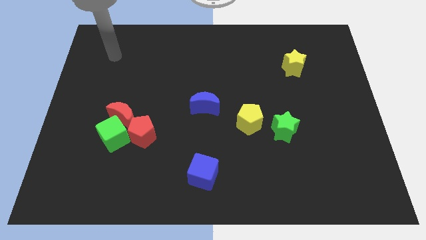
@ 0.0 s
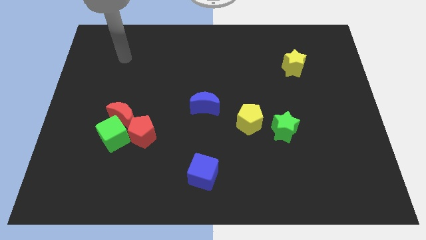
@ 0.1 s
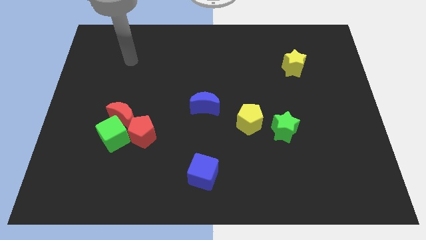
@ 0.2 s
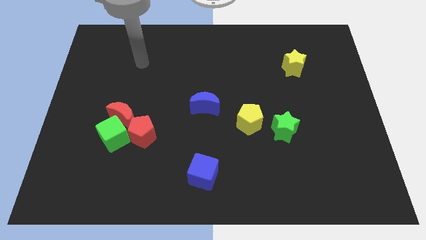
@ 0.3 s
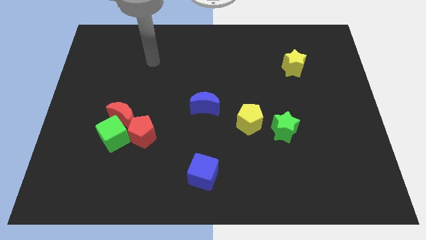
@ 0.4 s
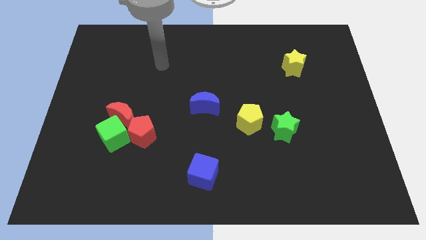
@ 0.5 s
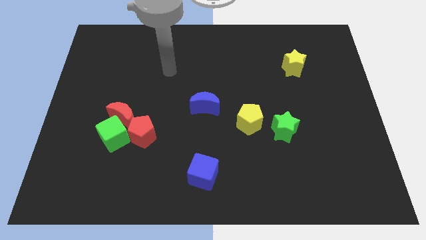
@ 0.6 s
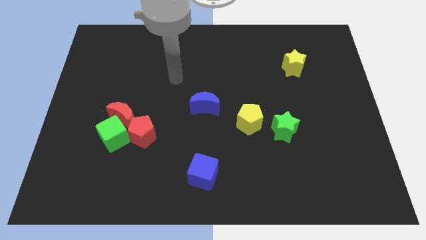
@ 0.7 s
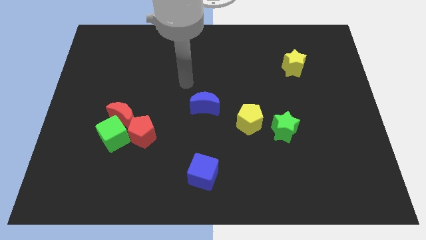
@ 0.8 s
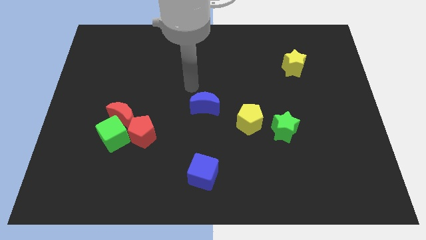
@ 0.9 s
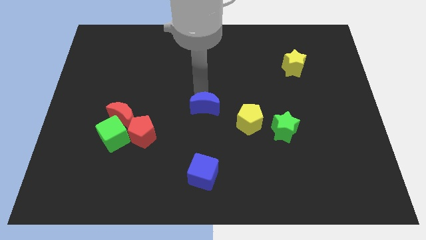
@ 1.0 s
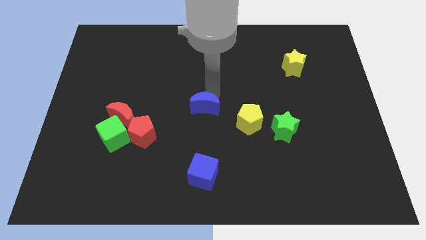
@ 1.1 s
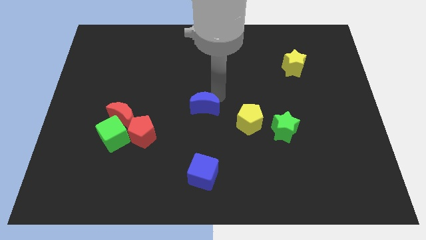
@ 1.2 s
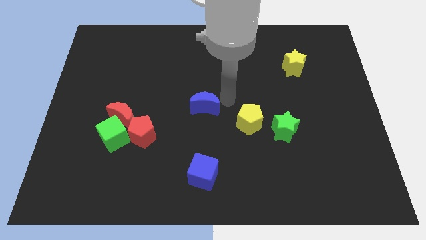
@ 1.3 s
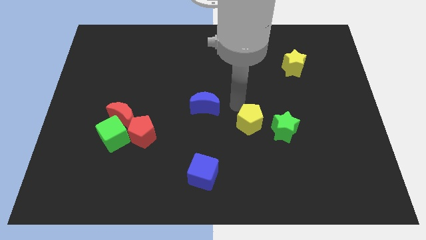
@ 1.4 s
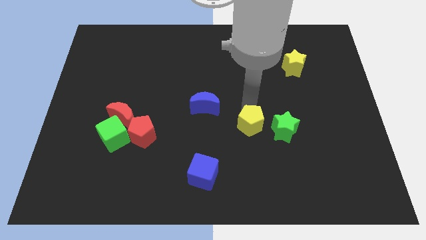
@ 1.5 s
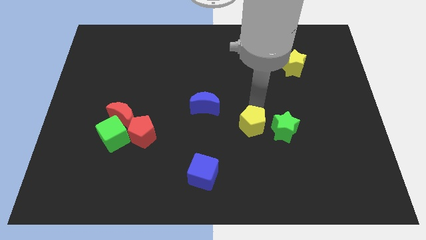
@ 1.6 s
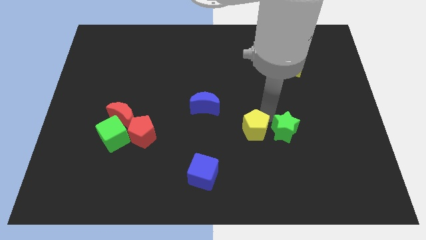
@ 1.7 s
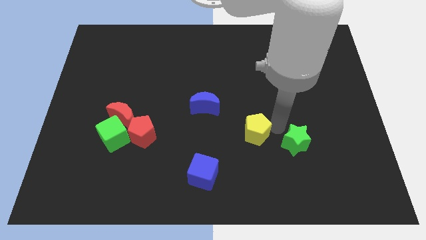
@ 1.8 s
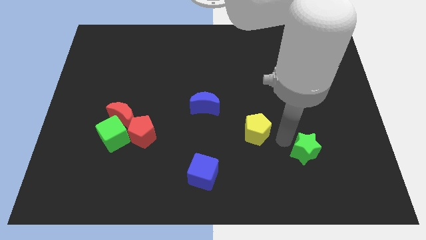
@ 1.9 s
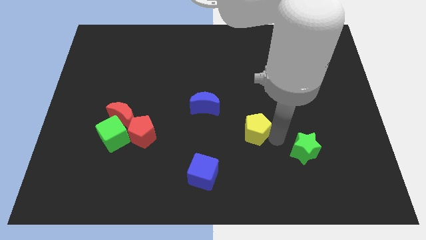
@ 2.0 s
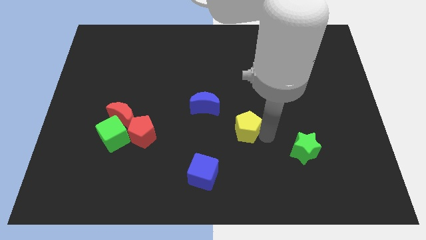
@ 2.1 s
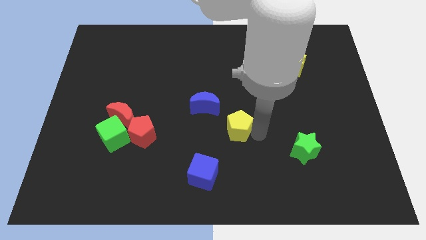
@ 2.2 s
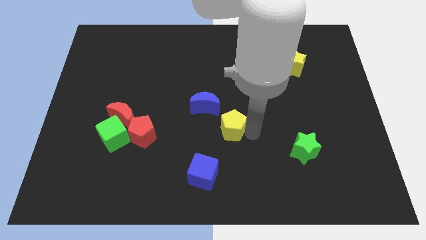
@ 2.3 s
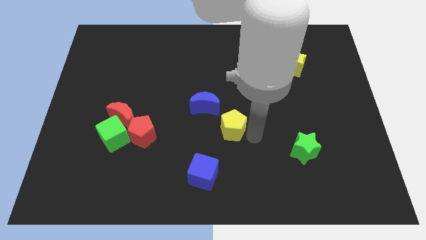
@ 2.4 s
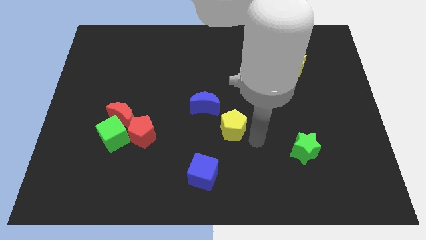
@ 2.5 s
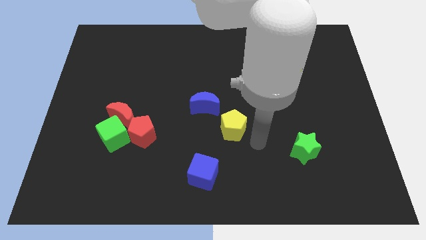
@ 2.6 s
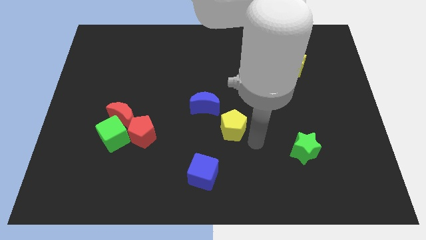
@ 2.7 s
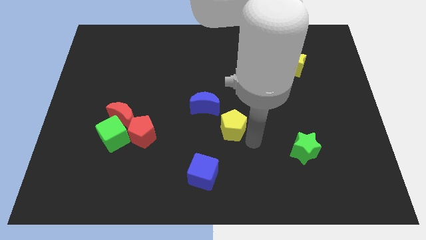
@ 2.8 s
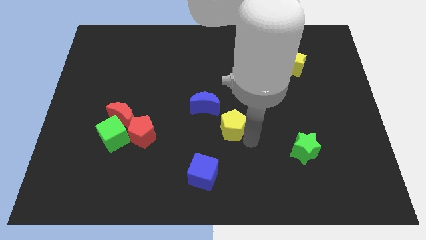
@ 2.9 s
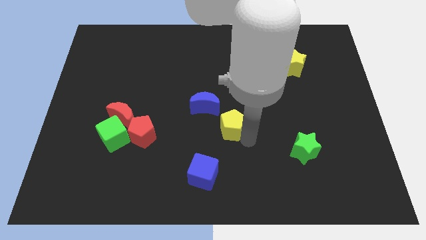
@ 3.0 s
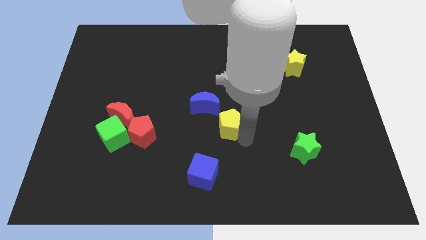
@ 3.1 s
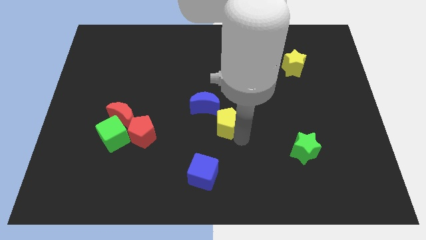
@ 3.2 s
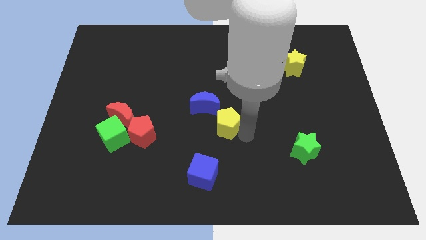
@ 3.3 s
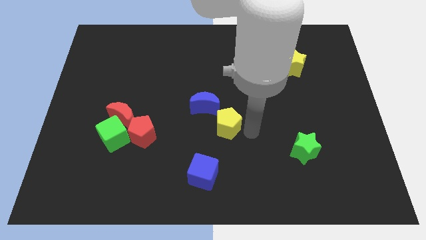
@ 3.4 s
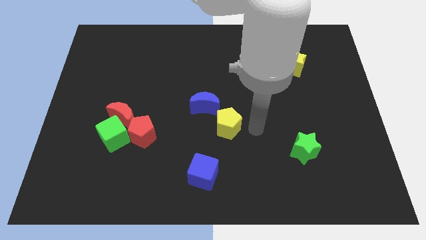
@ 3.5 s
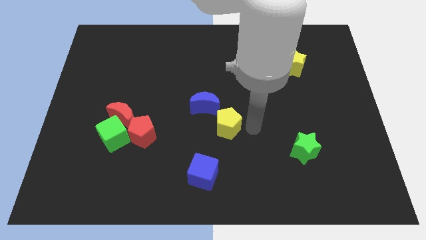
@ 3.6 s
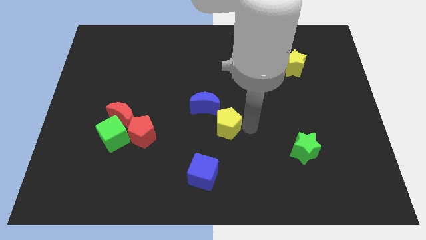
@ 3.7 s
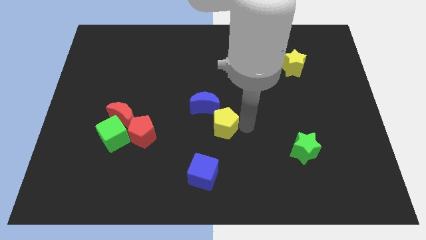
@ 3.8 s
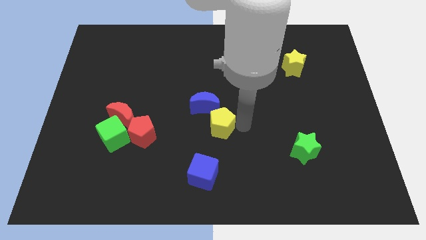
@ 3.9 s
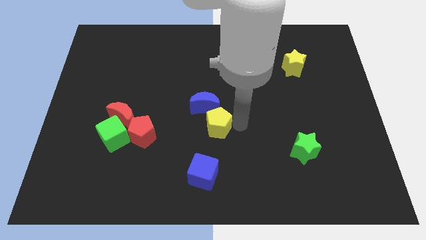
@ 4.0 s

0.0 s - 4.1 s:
push the yellow pentagon left somewhat

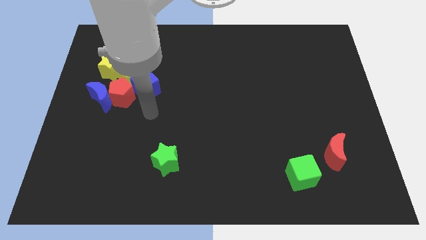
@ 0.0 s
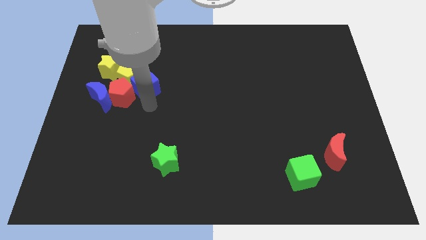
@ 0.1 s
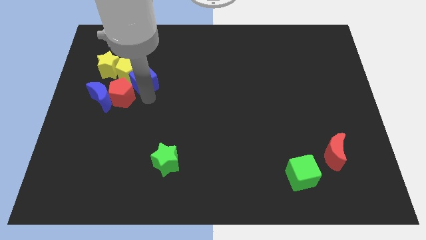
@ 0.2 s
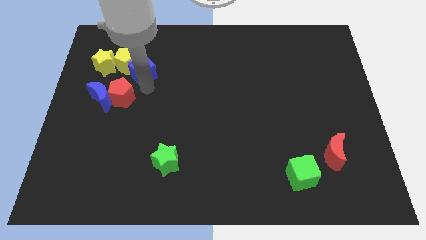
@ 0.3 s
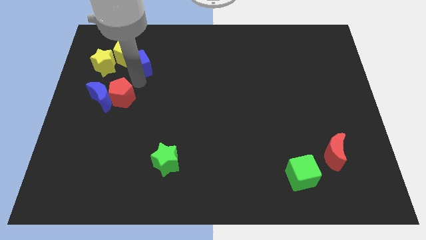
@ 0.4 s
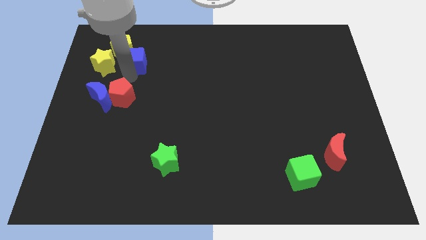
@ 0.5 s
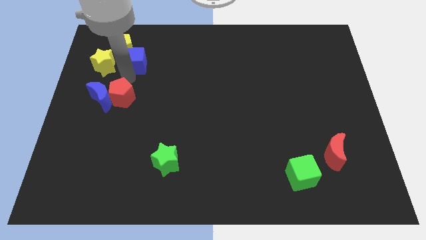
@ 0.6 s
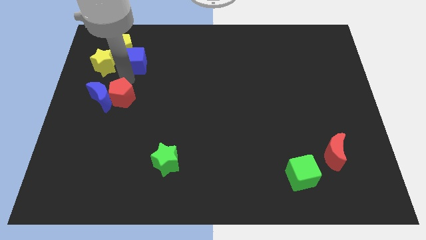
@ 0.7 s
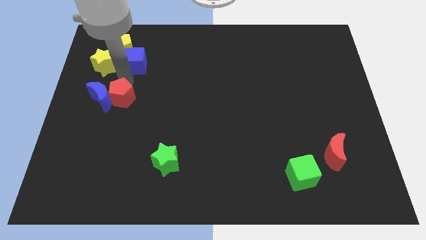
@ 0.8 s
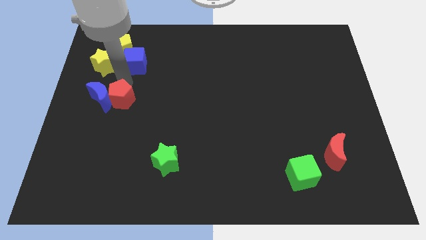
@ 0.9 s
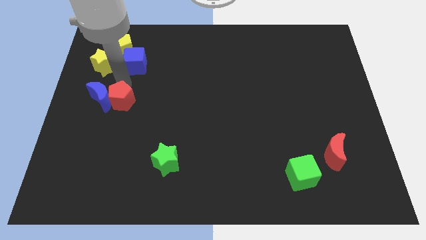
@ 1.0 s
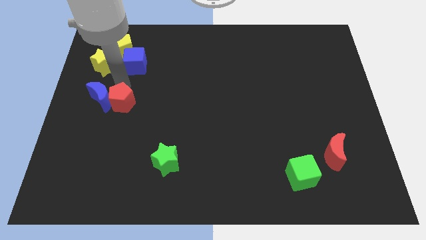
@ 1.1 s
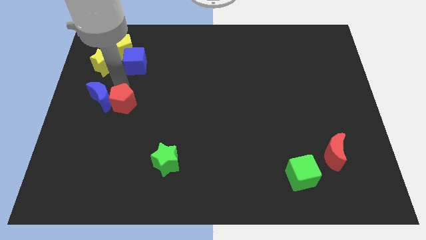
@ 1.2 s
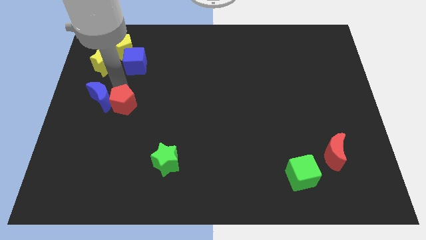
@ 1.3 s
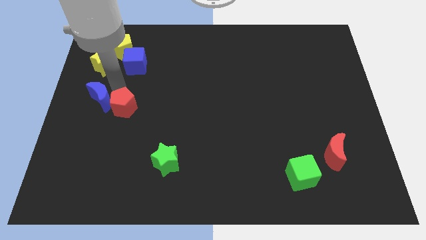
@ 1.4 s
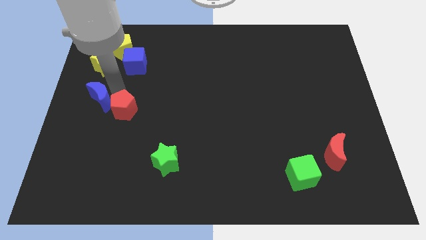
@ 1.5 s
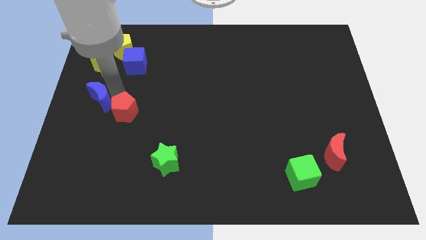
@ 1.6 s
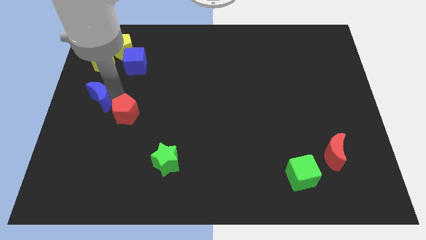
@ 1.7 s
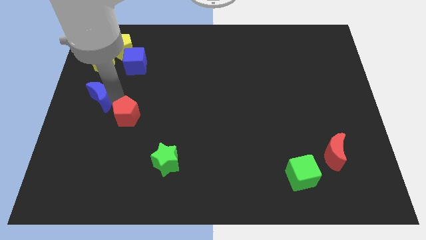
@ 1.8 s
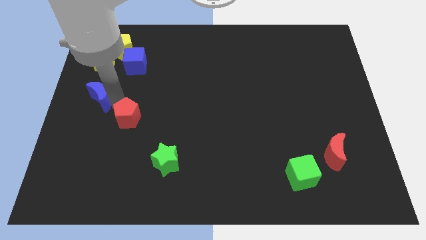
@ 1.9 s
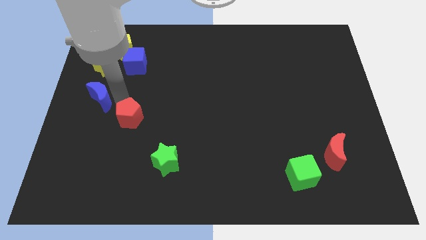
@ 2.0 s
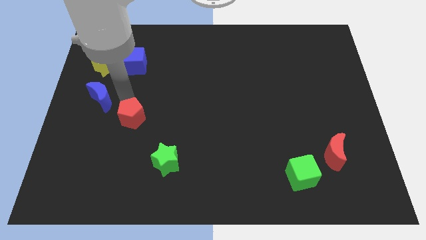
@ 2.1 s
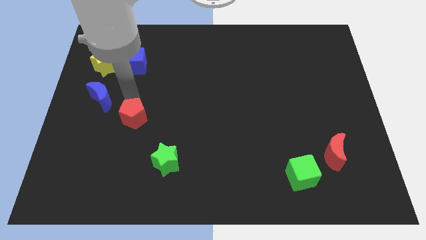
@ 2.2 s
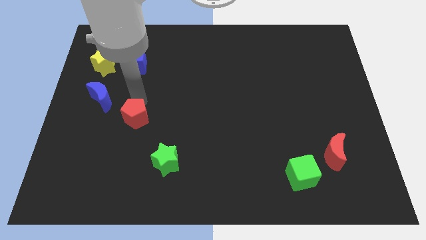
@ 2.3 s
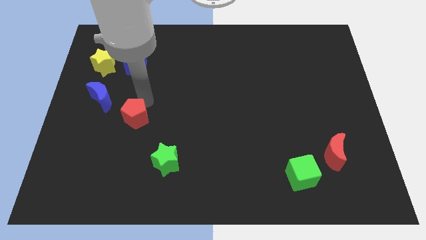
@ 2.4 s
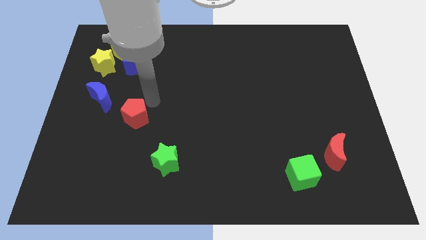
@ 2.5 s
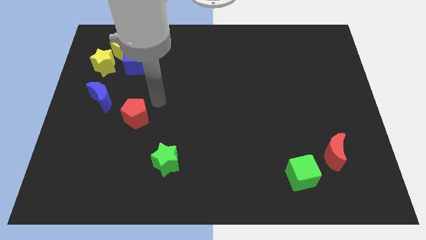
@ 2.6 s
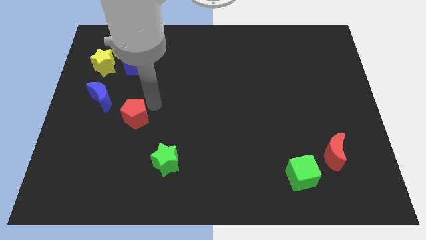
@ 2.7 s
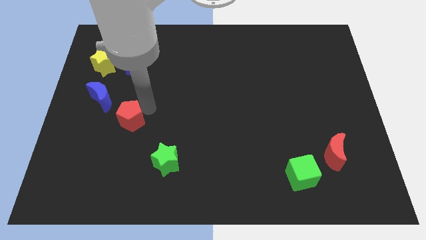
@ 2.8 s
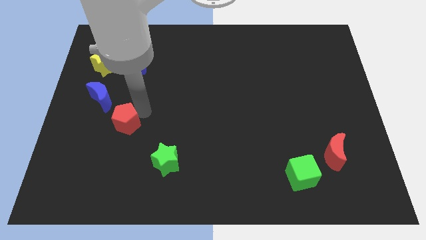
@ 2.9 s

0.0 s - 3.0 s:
slightly move the red pentagon down

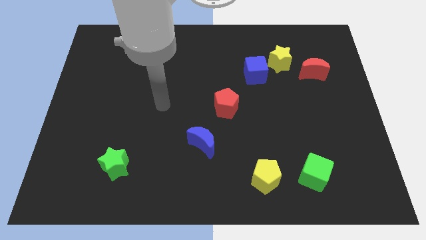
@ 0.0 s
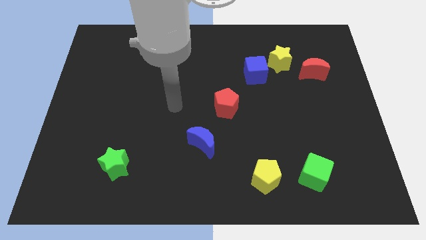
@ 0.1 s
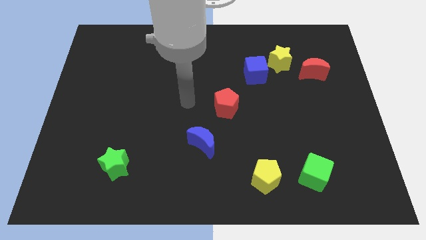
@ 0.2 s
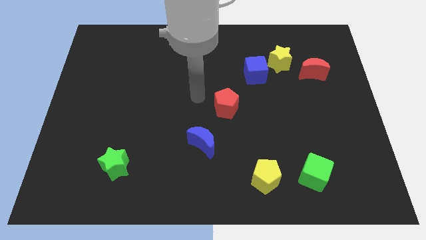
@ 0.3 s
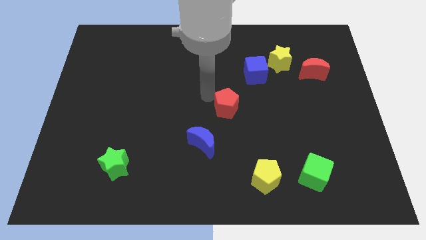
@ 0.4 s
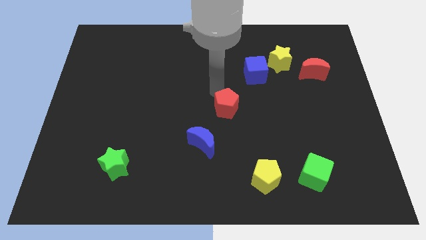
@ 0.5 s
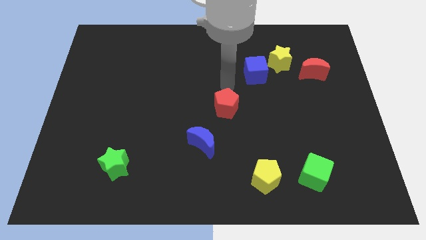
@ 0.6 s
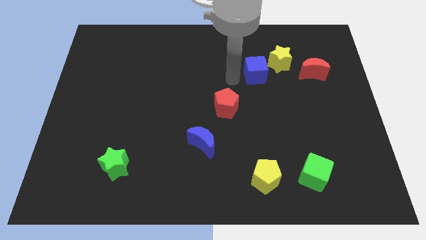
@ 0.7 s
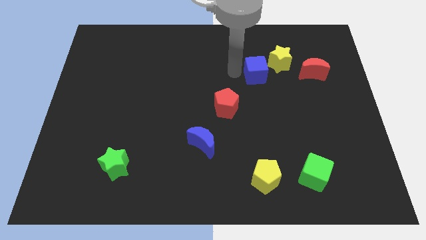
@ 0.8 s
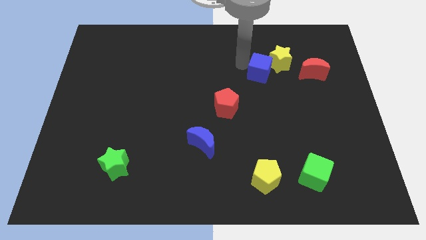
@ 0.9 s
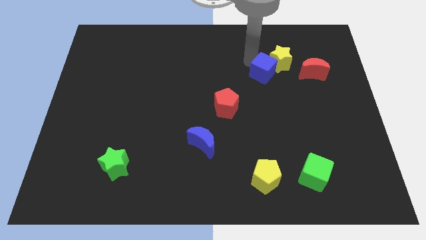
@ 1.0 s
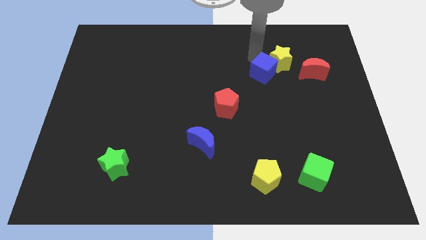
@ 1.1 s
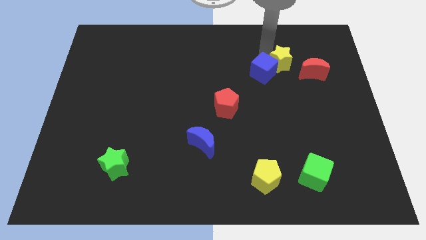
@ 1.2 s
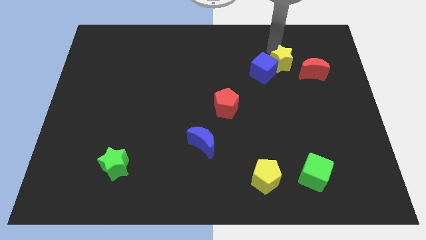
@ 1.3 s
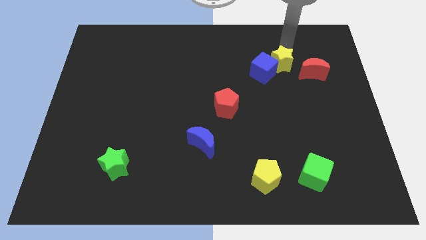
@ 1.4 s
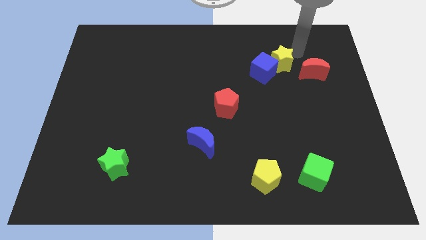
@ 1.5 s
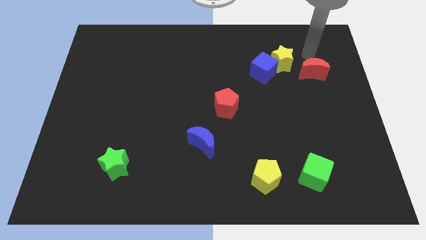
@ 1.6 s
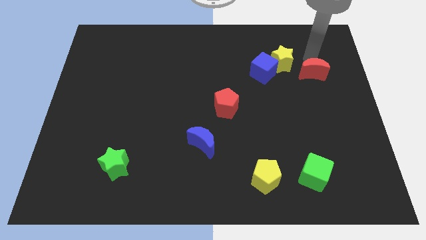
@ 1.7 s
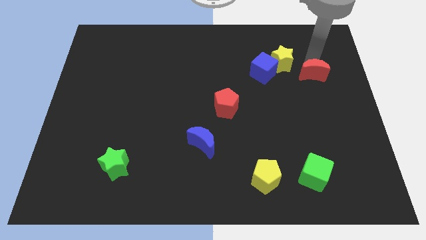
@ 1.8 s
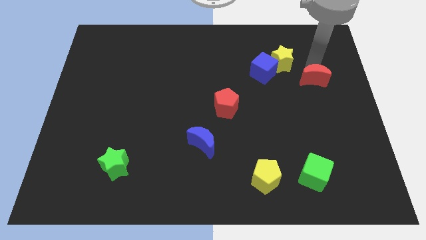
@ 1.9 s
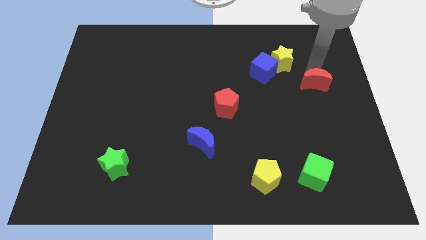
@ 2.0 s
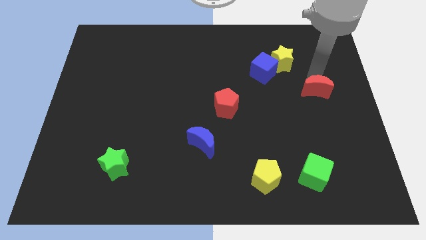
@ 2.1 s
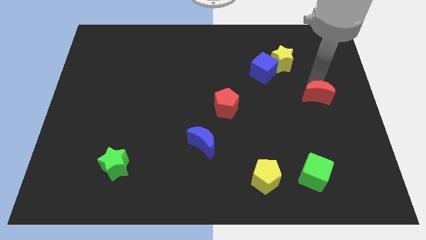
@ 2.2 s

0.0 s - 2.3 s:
push the red moon down a little bit
